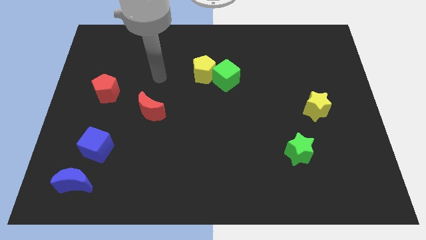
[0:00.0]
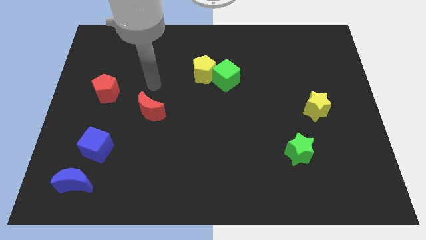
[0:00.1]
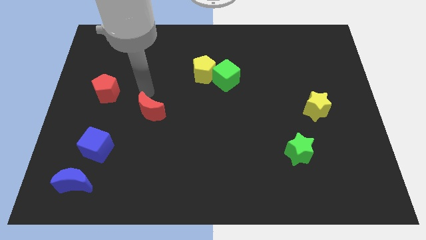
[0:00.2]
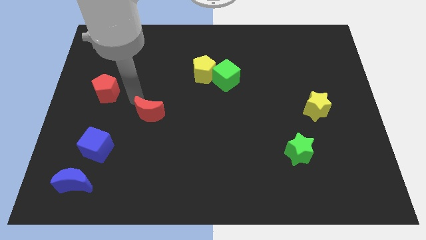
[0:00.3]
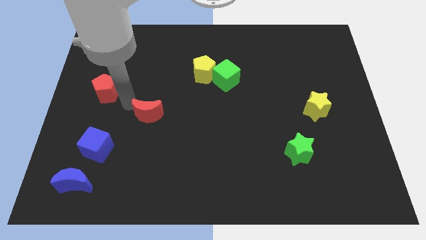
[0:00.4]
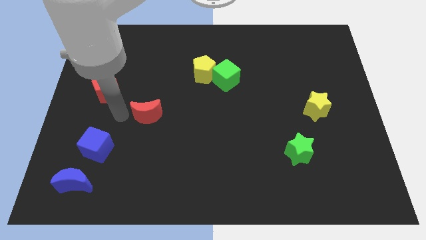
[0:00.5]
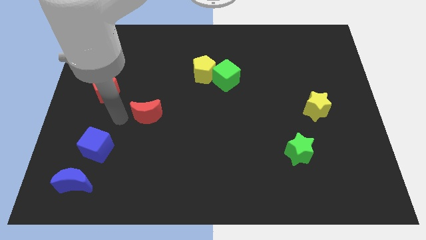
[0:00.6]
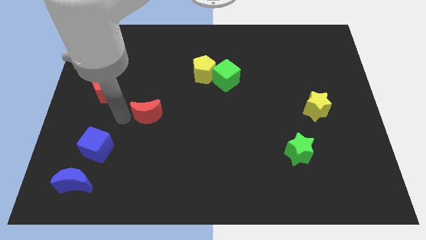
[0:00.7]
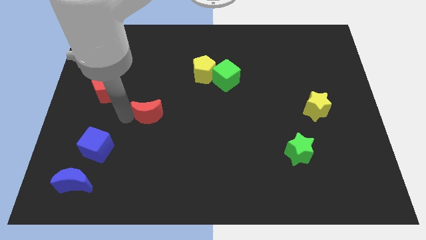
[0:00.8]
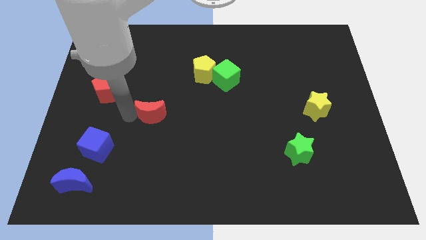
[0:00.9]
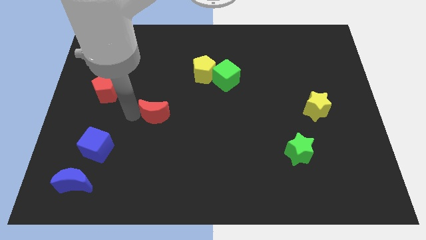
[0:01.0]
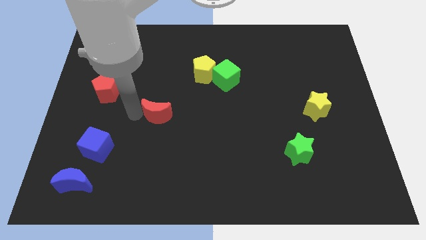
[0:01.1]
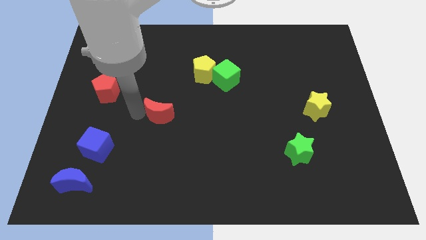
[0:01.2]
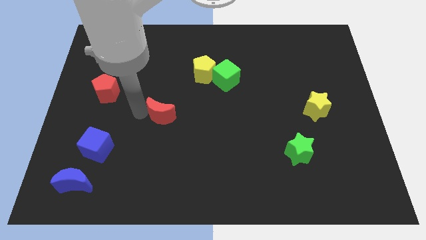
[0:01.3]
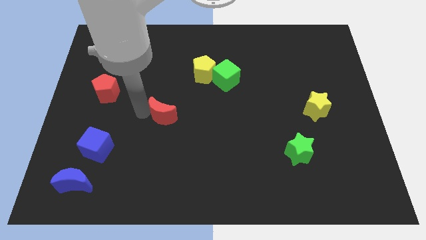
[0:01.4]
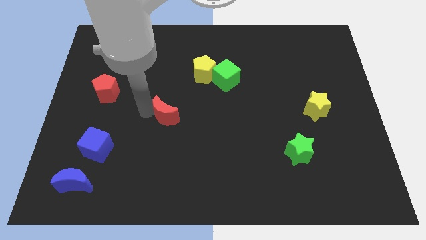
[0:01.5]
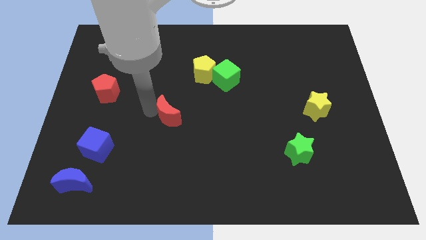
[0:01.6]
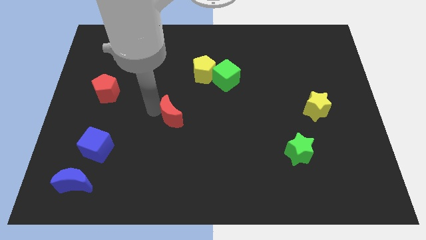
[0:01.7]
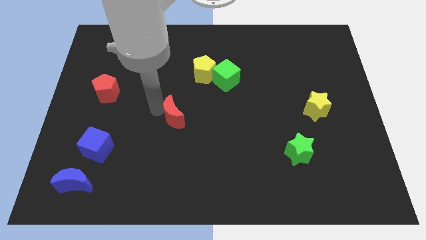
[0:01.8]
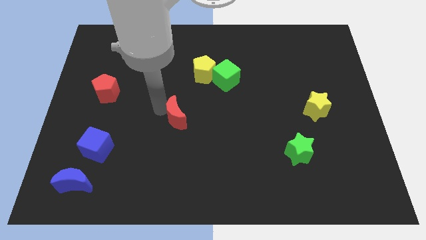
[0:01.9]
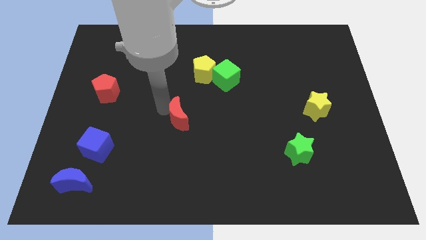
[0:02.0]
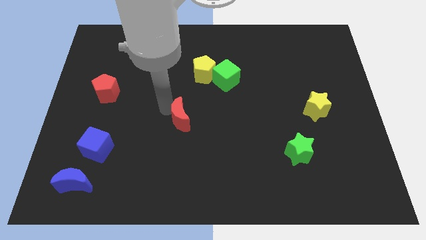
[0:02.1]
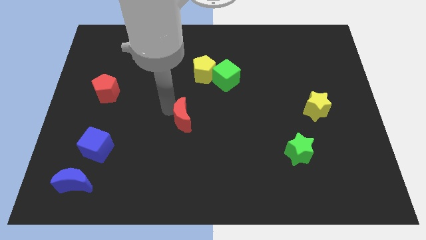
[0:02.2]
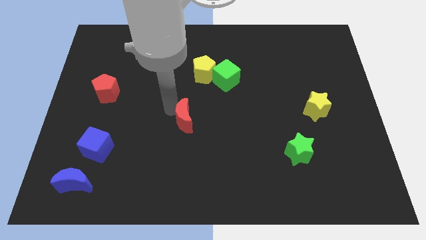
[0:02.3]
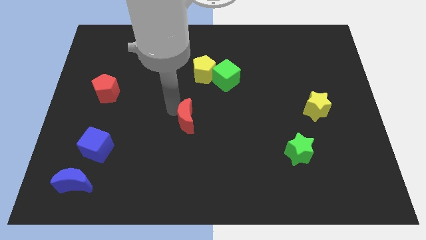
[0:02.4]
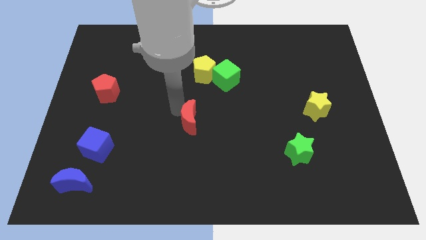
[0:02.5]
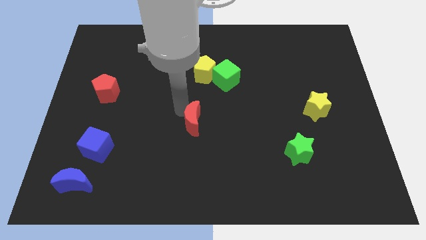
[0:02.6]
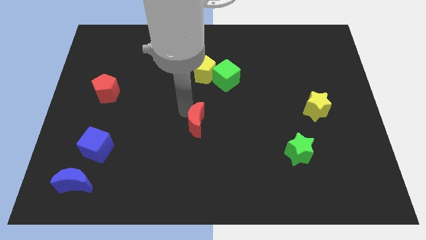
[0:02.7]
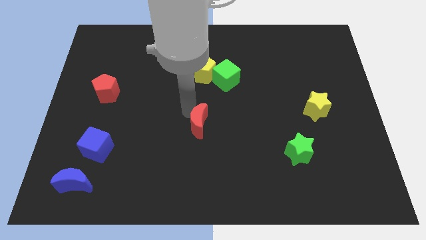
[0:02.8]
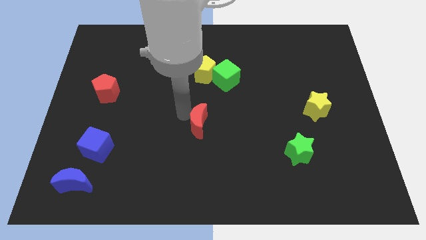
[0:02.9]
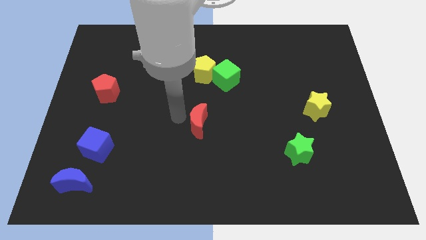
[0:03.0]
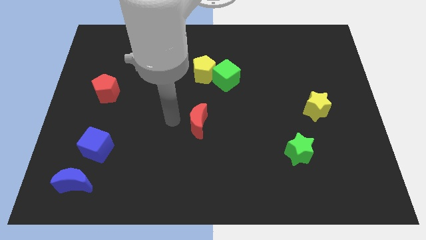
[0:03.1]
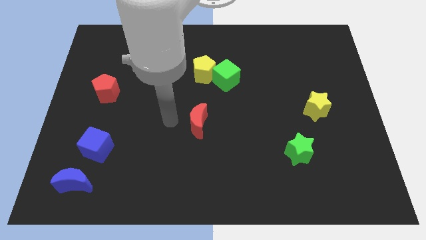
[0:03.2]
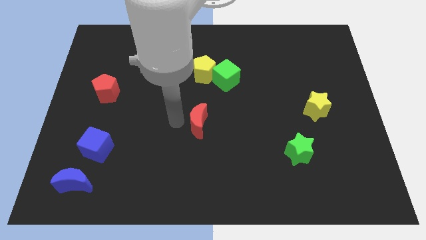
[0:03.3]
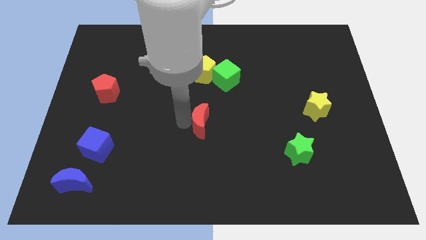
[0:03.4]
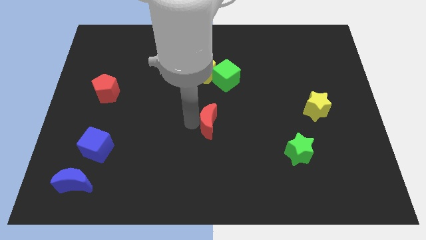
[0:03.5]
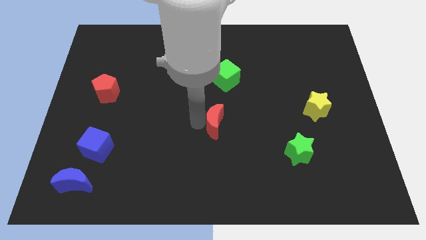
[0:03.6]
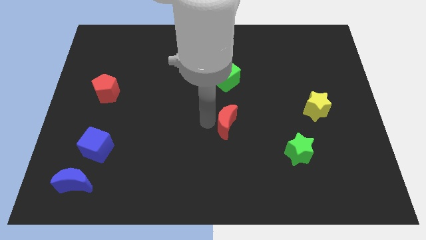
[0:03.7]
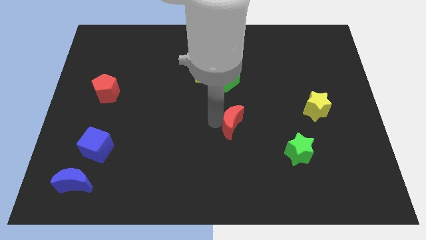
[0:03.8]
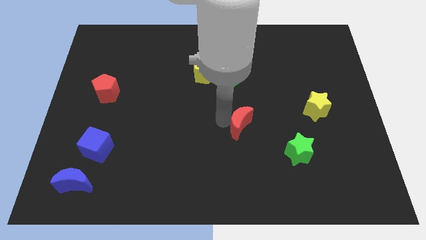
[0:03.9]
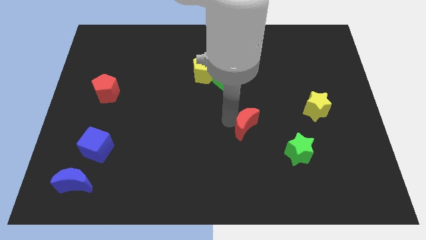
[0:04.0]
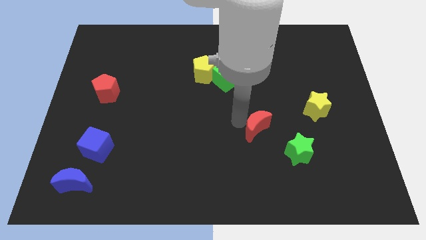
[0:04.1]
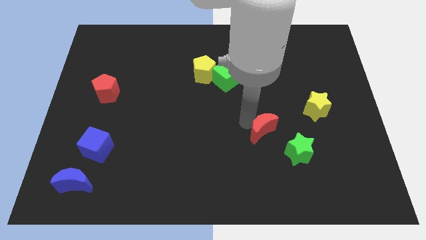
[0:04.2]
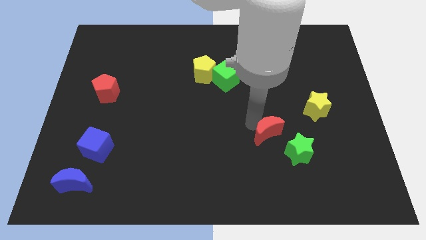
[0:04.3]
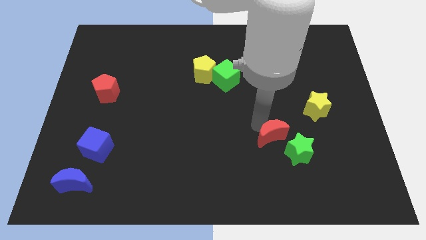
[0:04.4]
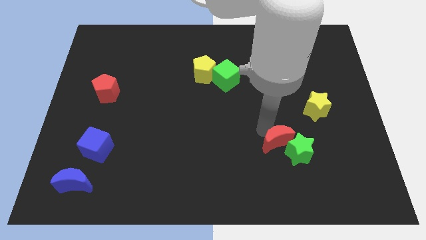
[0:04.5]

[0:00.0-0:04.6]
put the red moon close to the green star

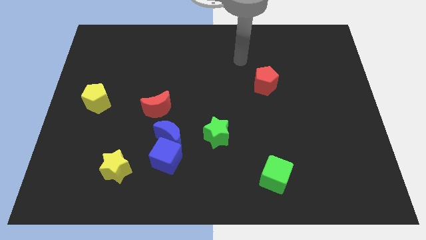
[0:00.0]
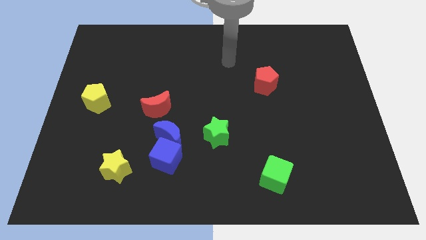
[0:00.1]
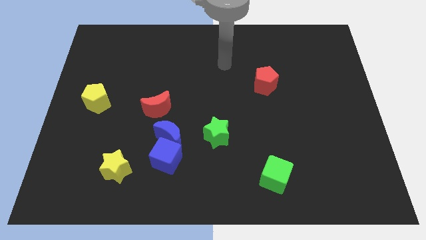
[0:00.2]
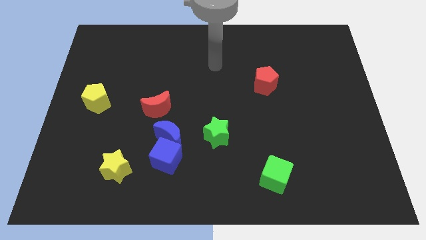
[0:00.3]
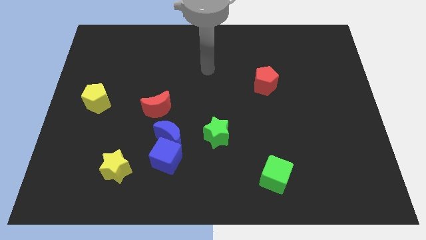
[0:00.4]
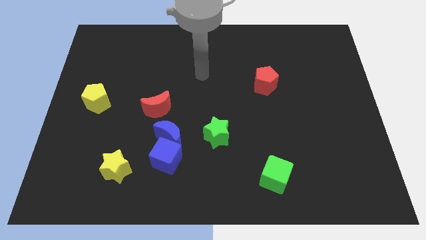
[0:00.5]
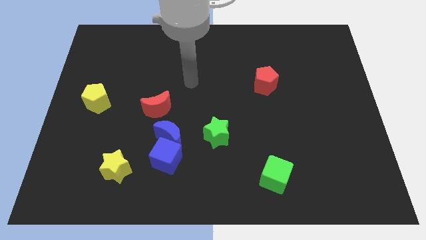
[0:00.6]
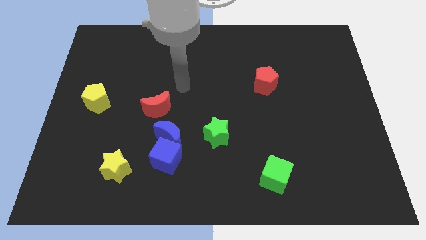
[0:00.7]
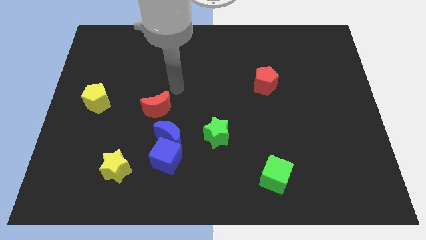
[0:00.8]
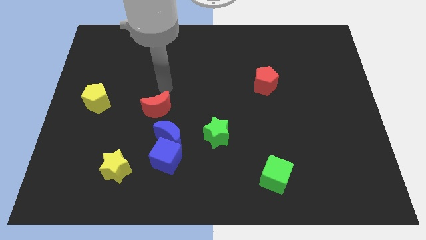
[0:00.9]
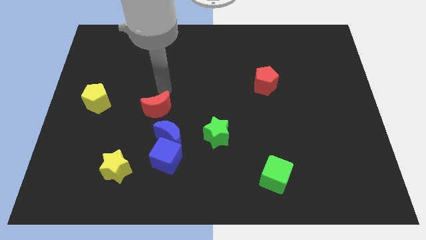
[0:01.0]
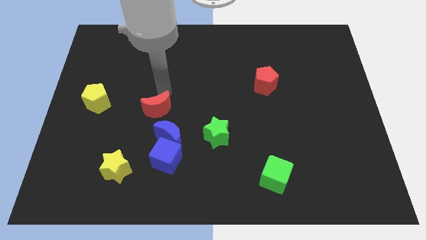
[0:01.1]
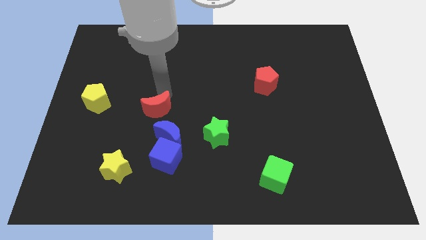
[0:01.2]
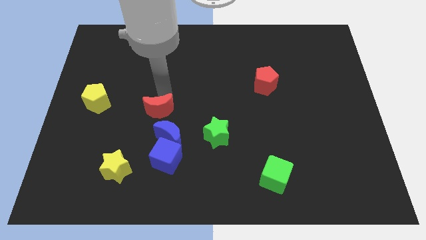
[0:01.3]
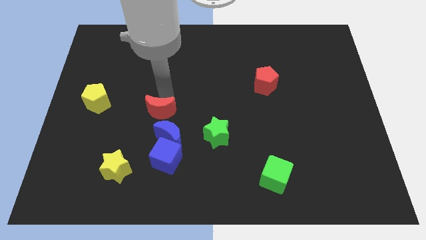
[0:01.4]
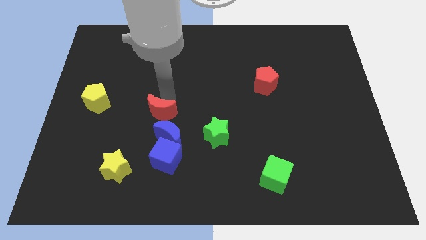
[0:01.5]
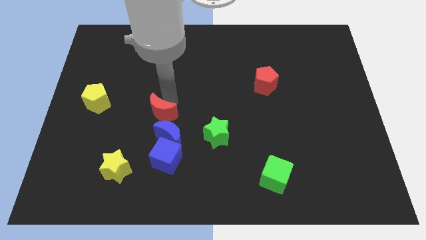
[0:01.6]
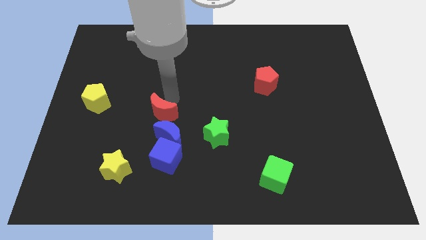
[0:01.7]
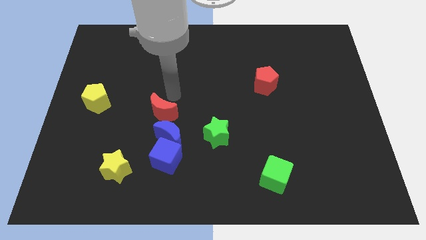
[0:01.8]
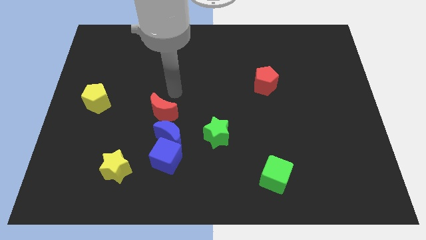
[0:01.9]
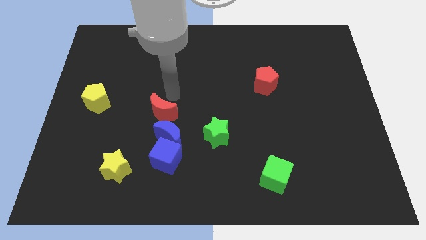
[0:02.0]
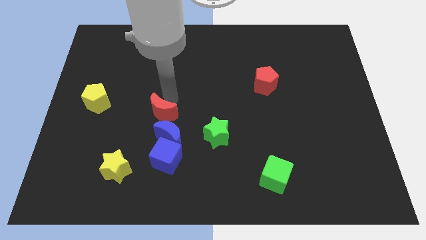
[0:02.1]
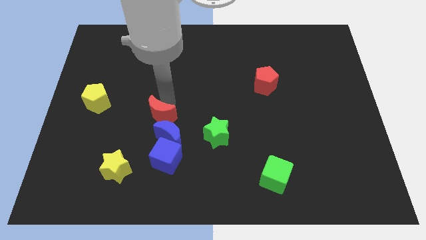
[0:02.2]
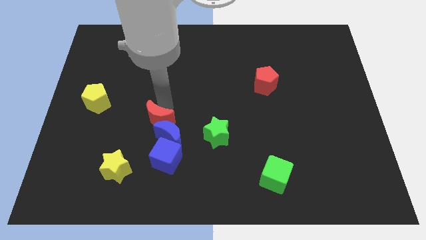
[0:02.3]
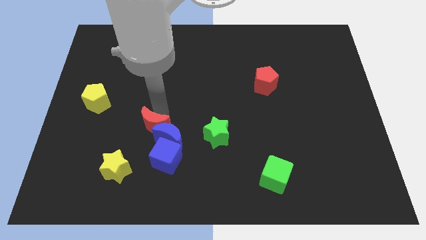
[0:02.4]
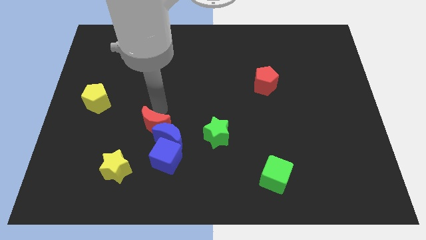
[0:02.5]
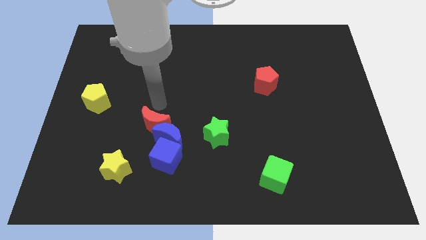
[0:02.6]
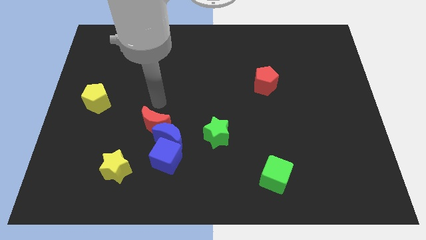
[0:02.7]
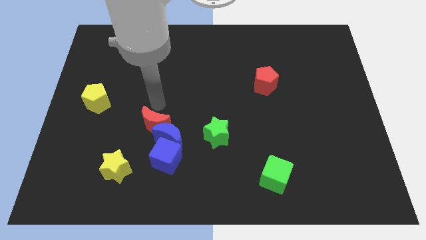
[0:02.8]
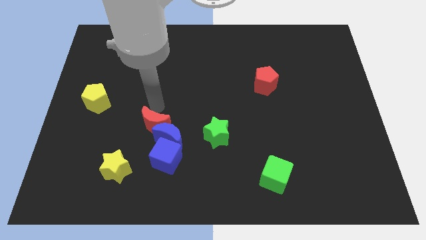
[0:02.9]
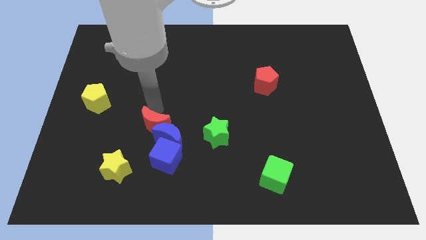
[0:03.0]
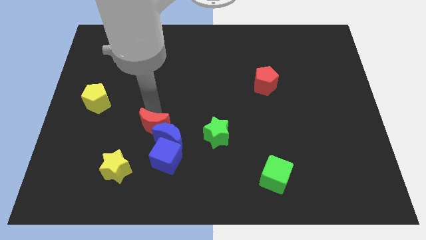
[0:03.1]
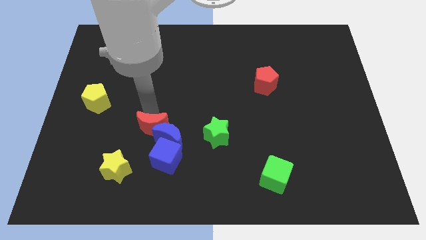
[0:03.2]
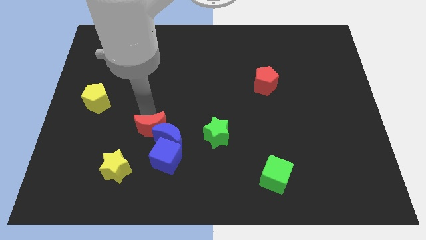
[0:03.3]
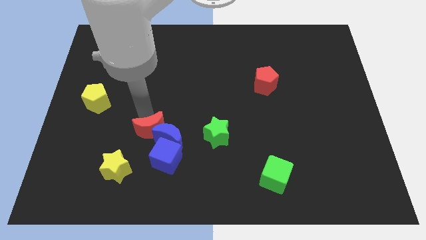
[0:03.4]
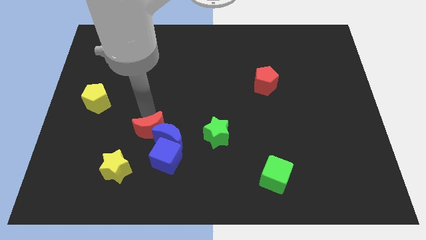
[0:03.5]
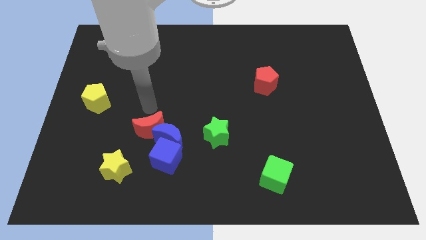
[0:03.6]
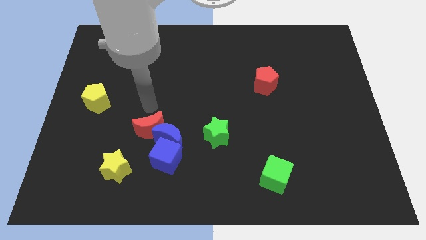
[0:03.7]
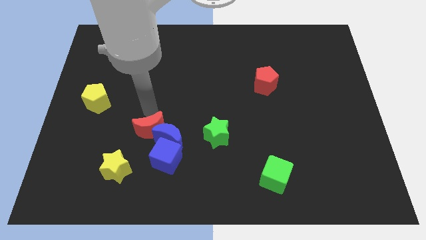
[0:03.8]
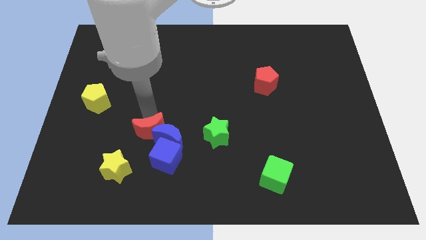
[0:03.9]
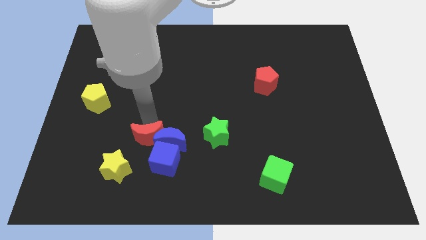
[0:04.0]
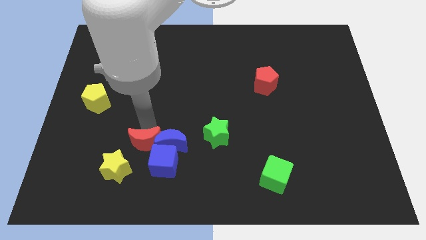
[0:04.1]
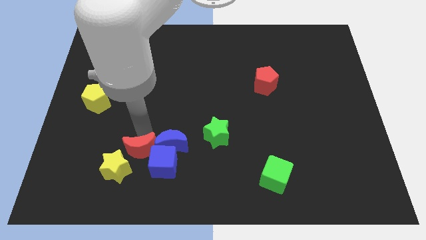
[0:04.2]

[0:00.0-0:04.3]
put the red moon next to the blue cube
